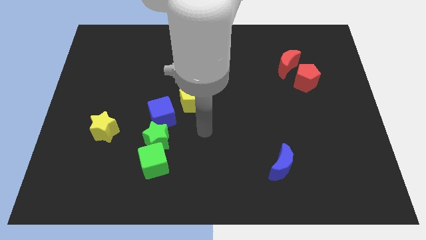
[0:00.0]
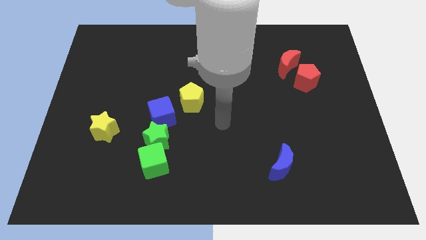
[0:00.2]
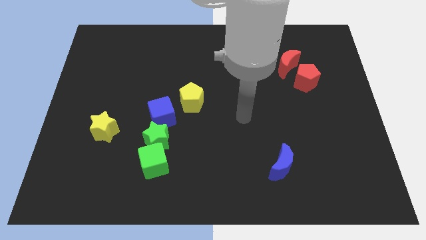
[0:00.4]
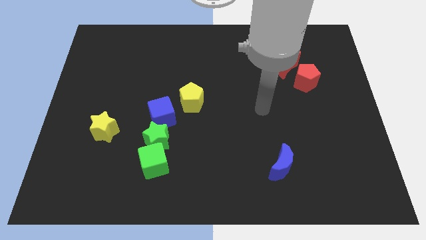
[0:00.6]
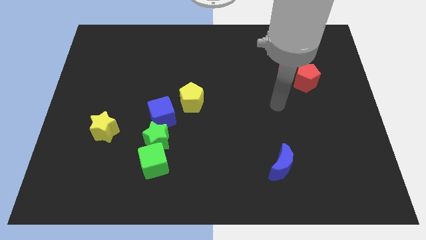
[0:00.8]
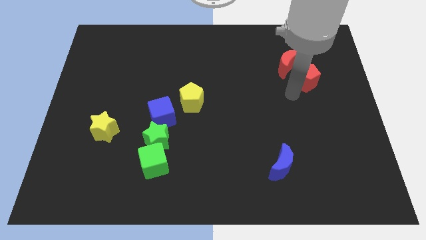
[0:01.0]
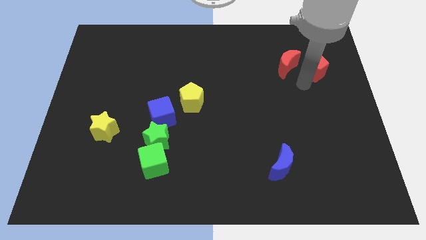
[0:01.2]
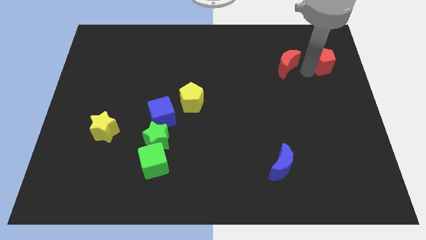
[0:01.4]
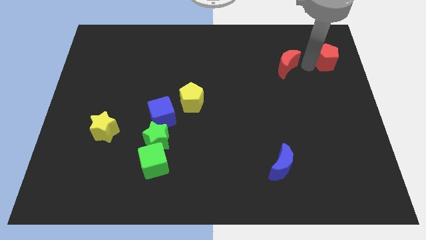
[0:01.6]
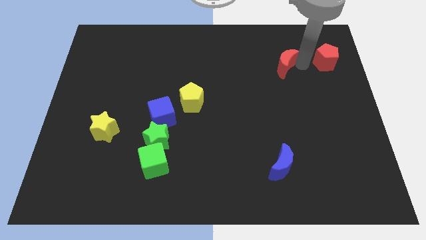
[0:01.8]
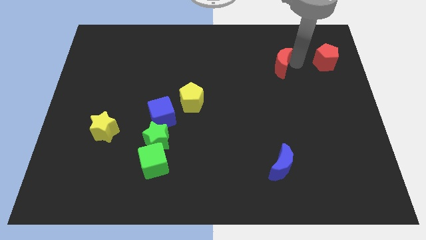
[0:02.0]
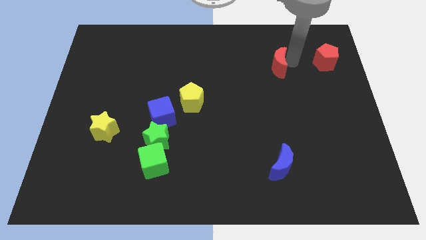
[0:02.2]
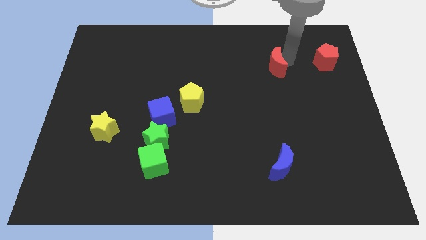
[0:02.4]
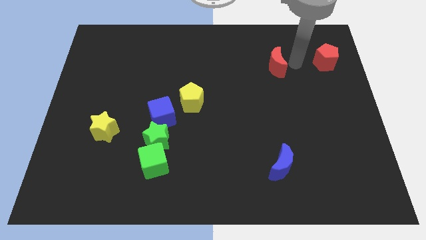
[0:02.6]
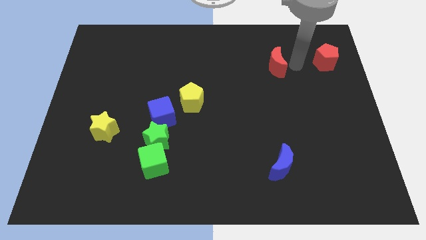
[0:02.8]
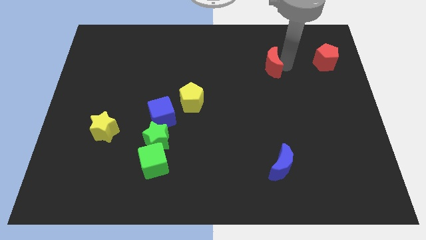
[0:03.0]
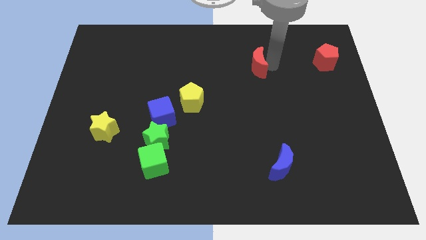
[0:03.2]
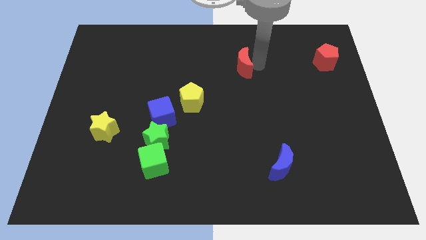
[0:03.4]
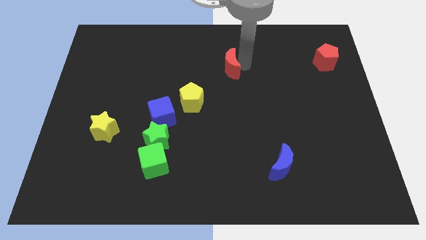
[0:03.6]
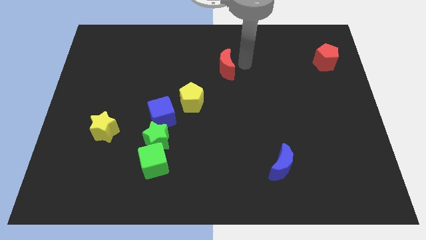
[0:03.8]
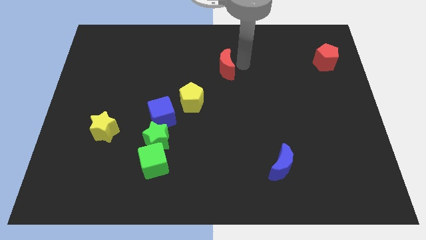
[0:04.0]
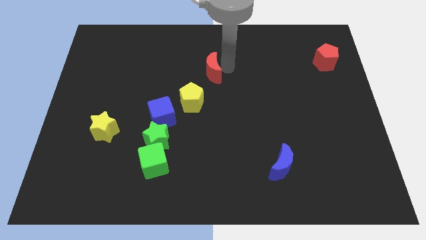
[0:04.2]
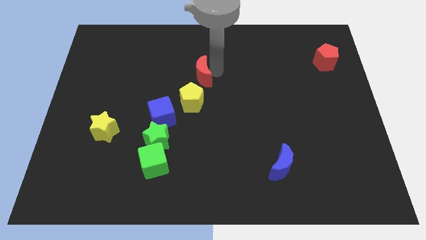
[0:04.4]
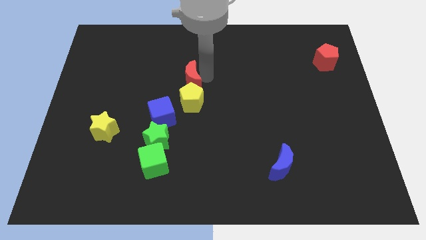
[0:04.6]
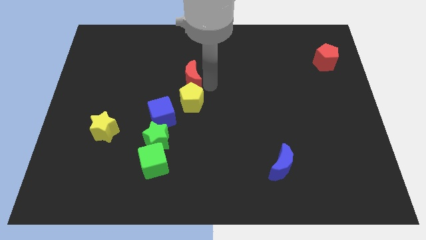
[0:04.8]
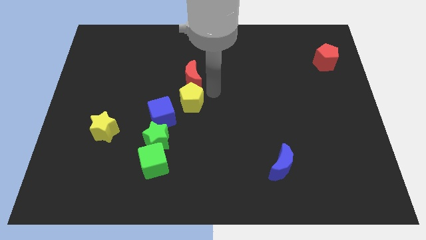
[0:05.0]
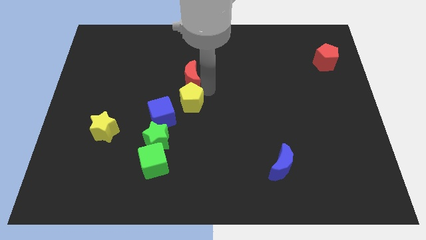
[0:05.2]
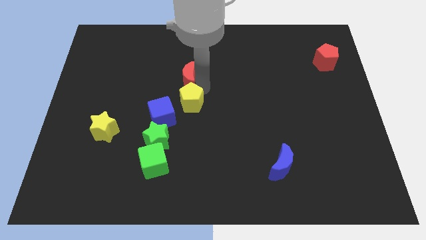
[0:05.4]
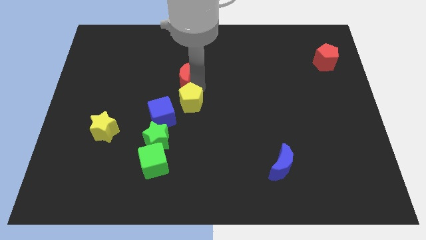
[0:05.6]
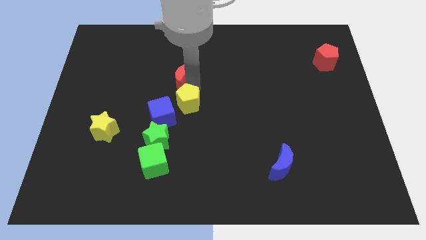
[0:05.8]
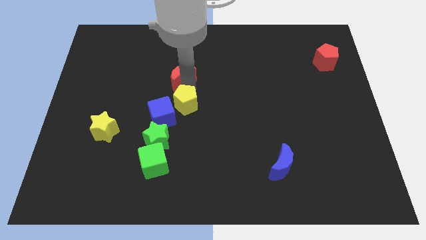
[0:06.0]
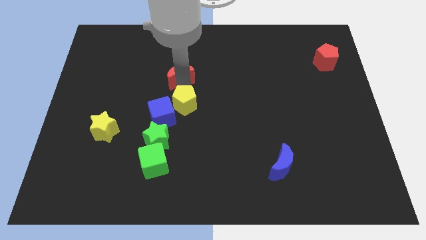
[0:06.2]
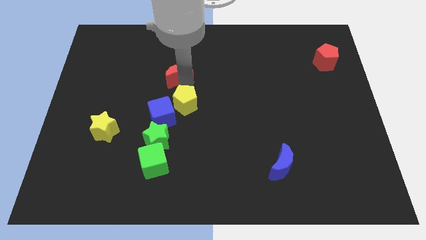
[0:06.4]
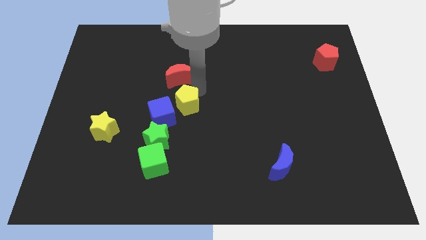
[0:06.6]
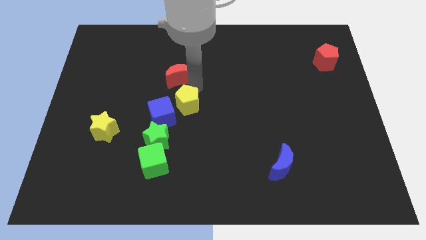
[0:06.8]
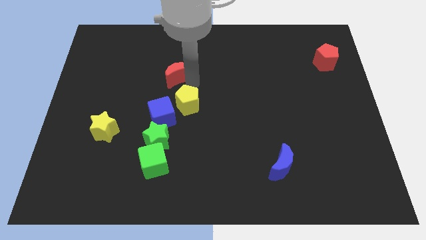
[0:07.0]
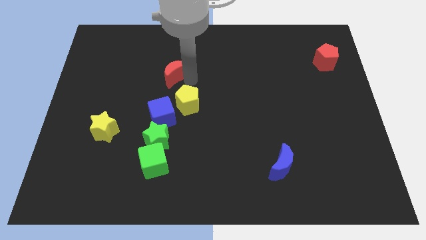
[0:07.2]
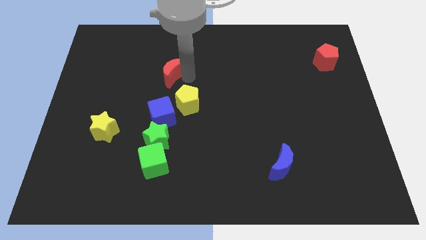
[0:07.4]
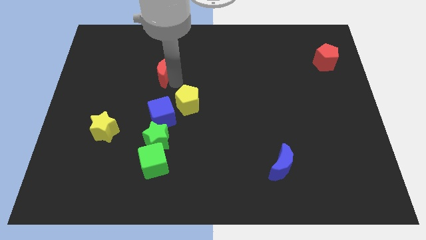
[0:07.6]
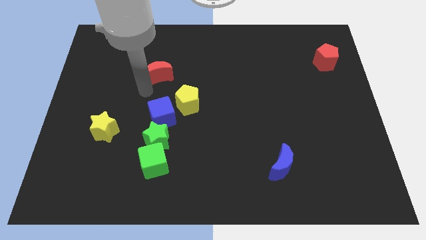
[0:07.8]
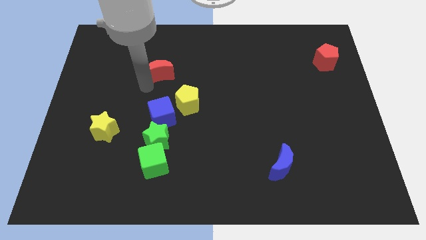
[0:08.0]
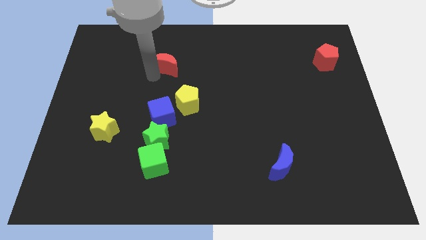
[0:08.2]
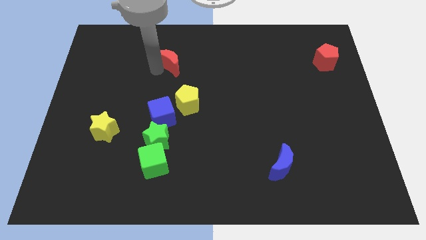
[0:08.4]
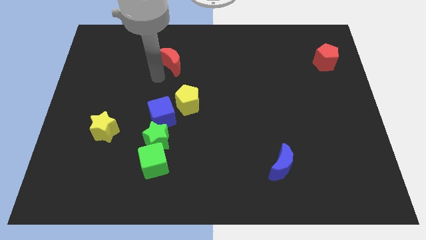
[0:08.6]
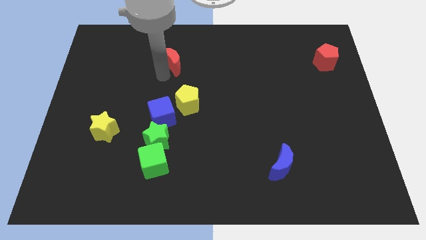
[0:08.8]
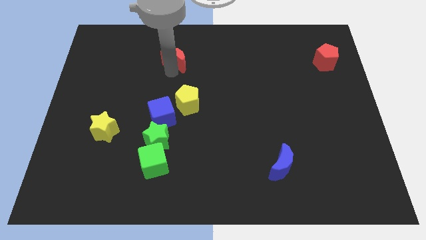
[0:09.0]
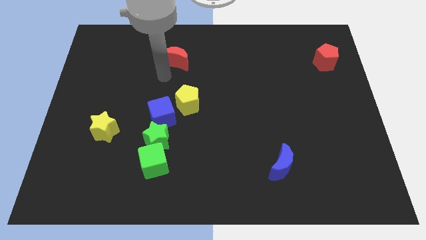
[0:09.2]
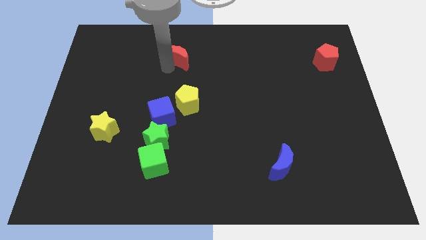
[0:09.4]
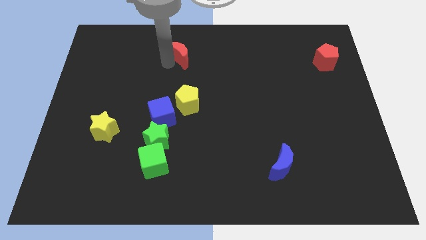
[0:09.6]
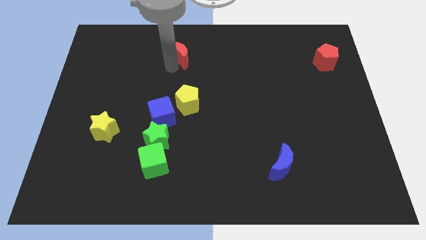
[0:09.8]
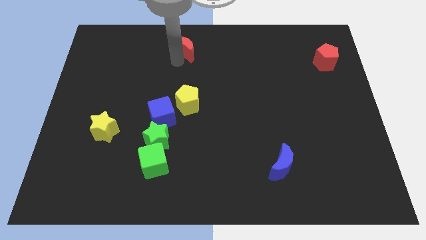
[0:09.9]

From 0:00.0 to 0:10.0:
push the red moon to the top side

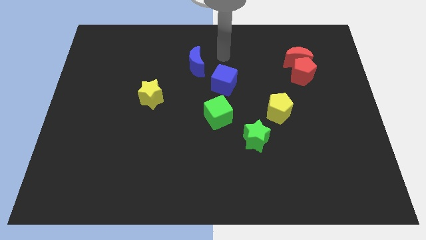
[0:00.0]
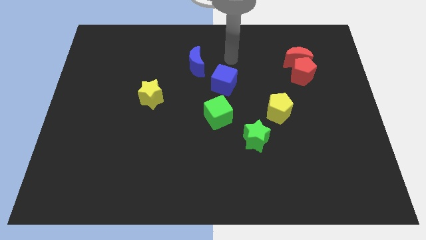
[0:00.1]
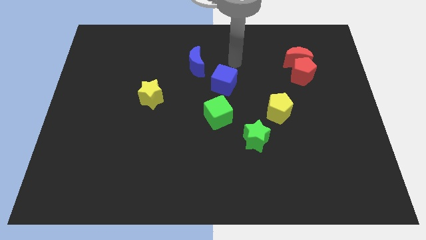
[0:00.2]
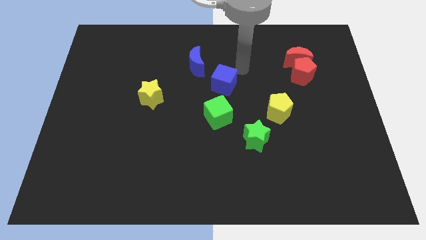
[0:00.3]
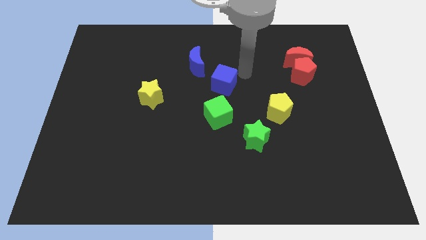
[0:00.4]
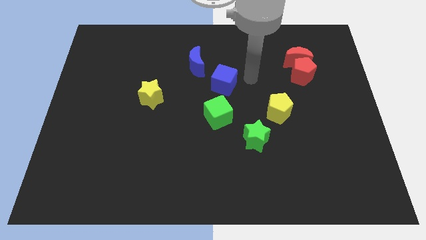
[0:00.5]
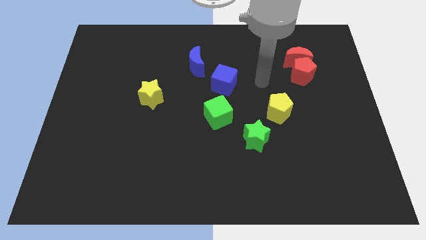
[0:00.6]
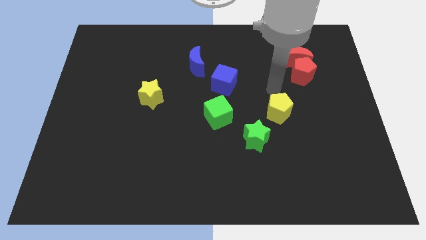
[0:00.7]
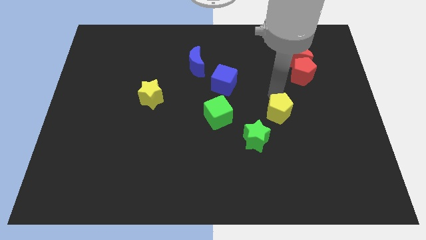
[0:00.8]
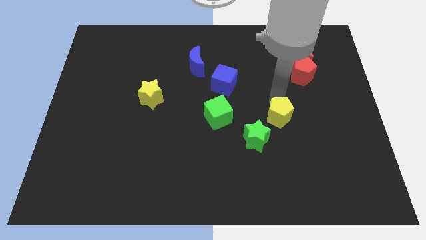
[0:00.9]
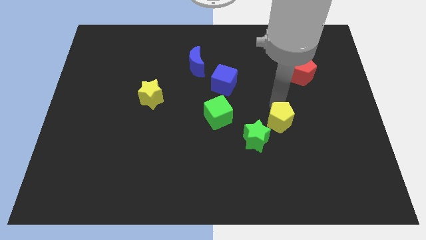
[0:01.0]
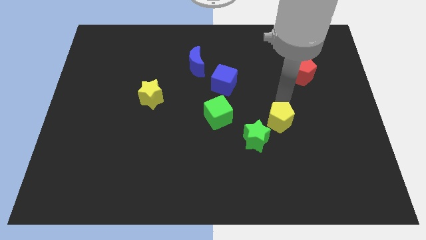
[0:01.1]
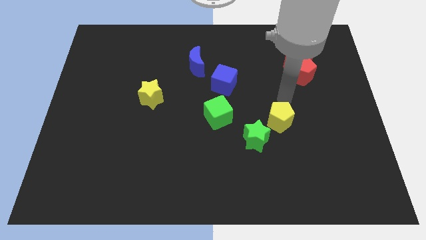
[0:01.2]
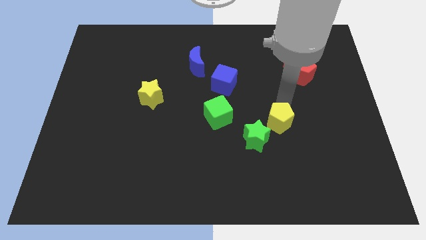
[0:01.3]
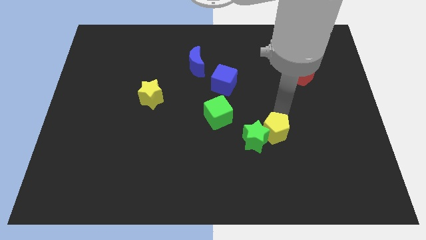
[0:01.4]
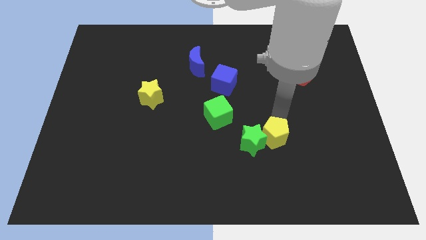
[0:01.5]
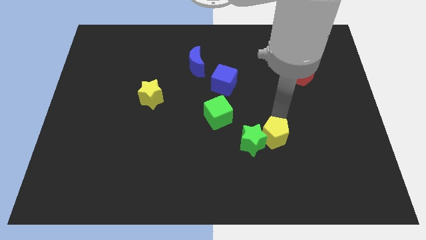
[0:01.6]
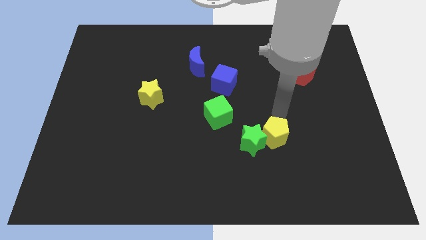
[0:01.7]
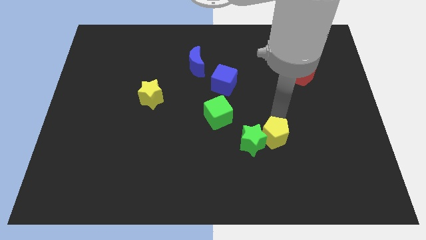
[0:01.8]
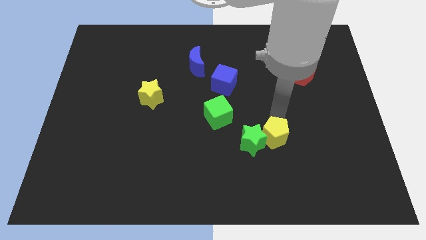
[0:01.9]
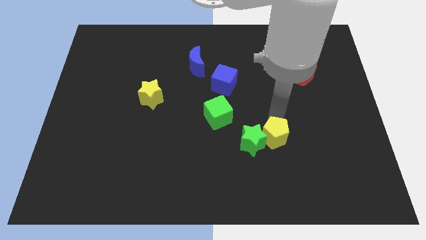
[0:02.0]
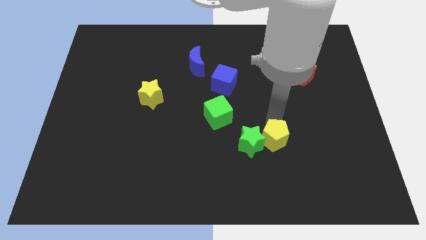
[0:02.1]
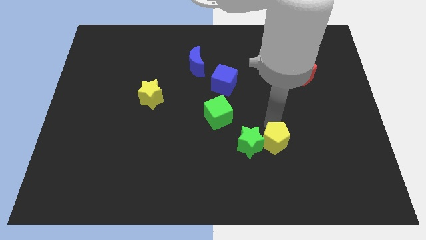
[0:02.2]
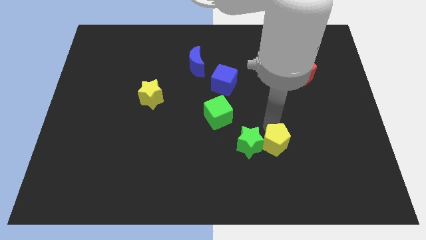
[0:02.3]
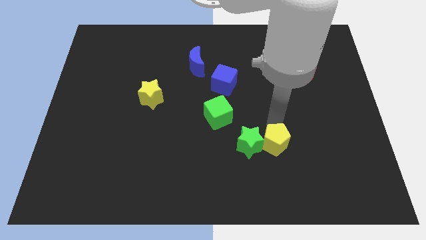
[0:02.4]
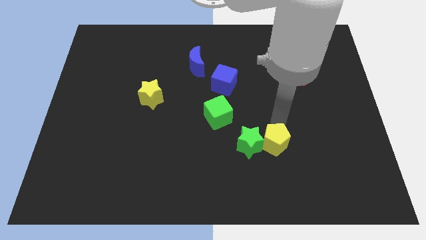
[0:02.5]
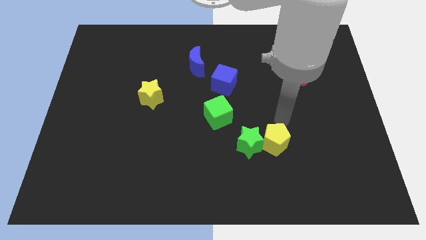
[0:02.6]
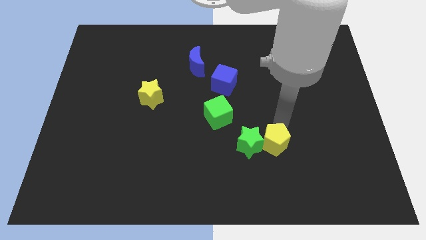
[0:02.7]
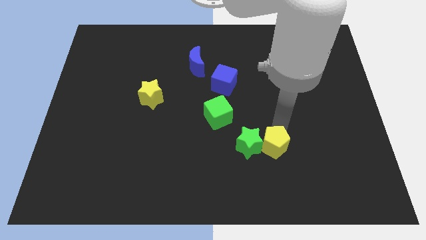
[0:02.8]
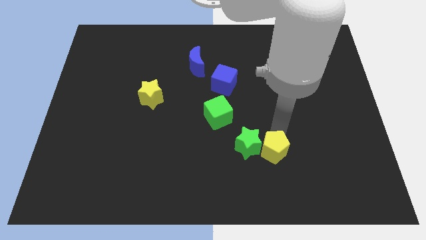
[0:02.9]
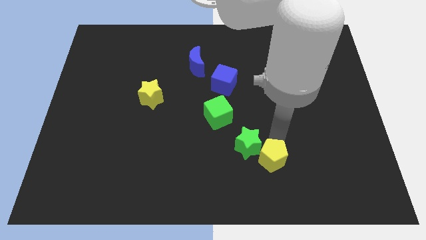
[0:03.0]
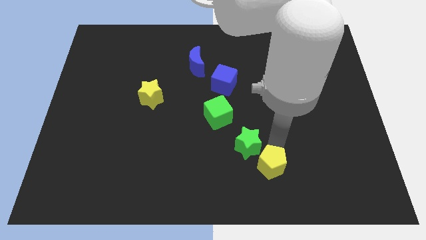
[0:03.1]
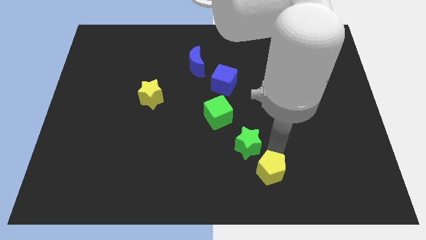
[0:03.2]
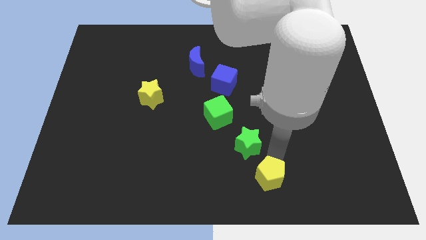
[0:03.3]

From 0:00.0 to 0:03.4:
slide the yellow pentagon to the bottom
